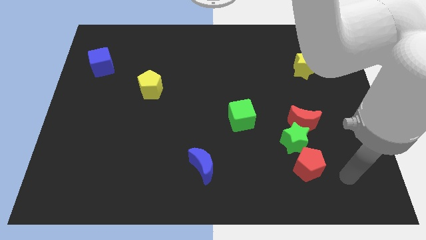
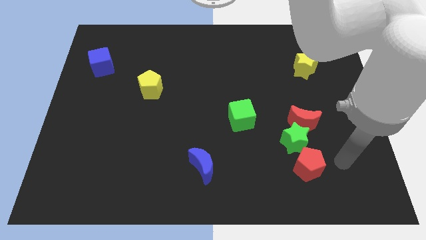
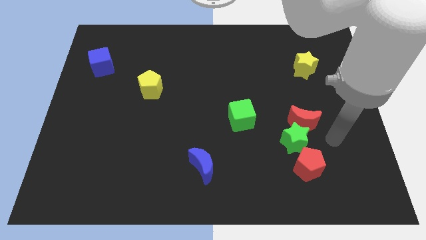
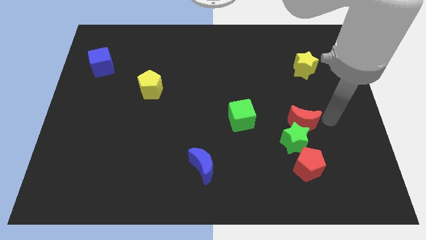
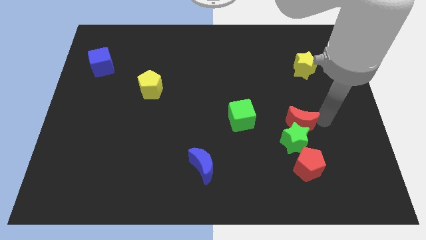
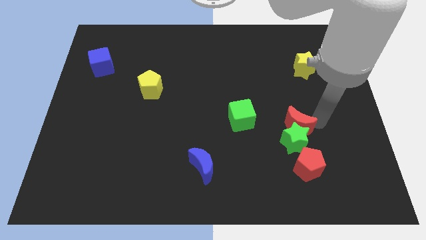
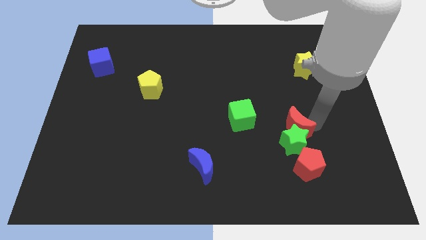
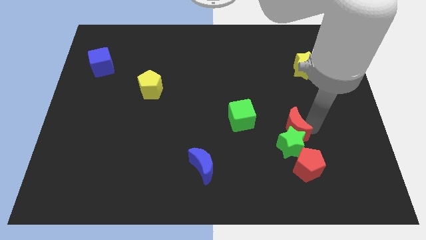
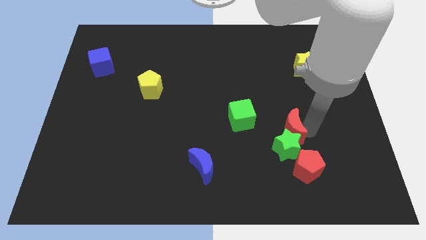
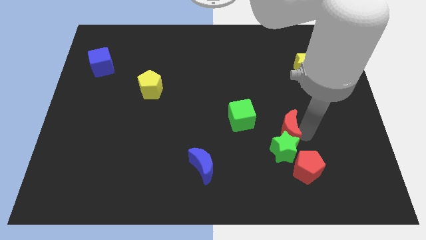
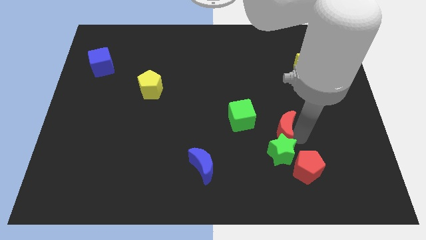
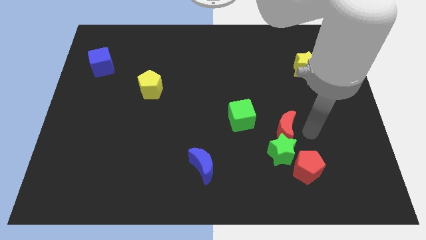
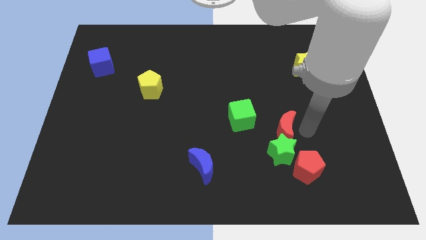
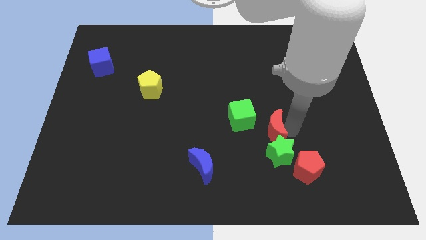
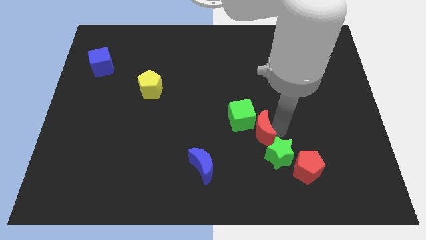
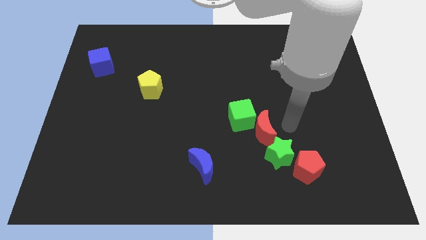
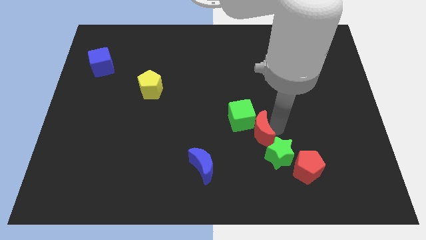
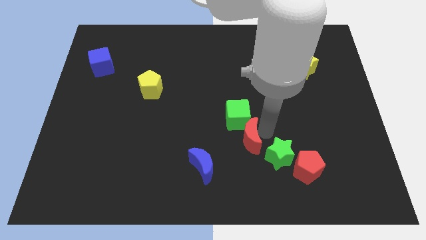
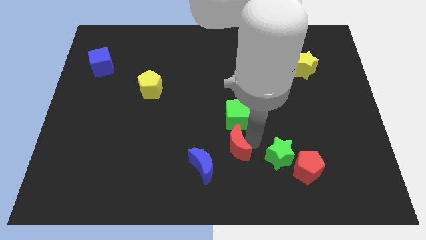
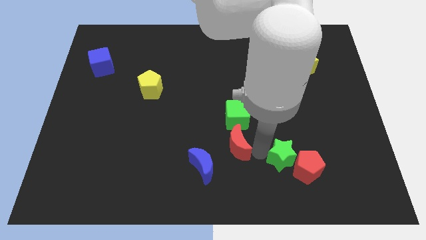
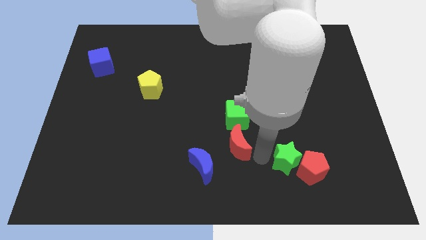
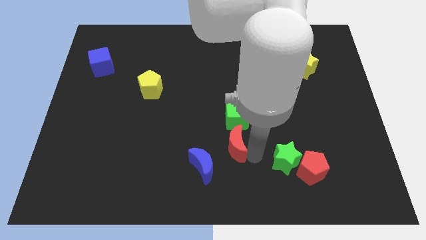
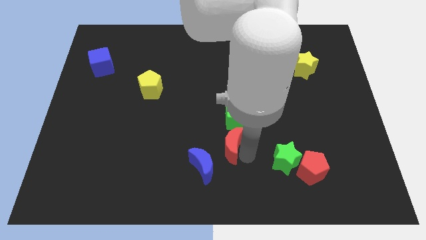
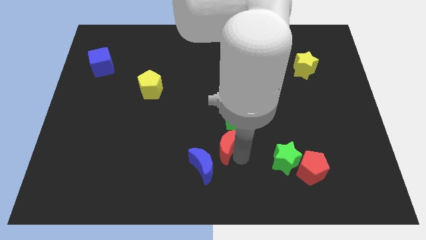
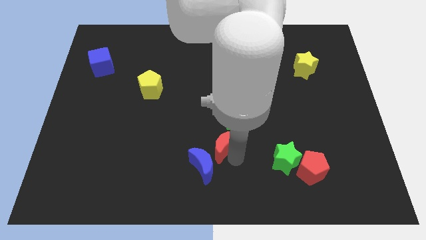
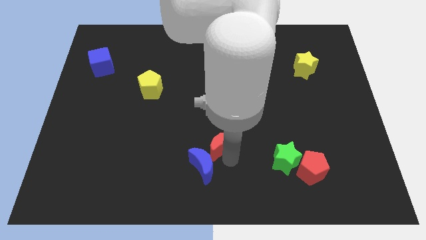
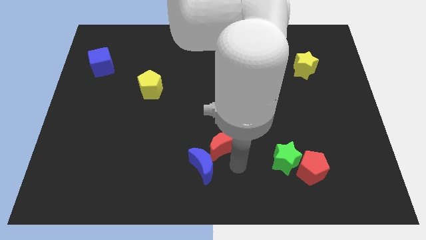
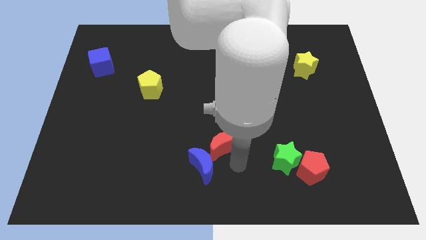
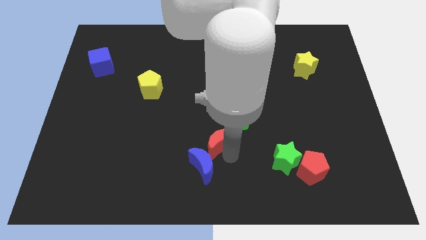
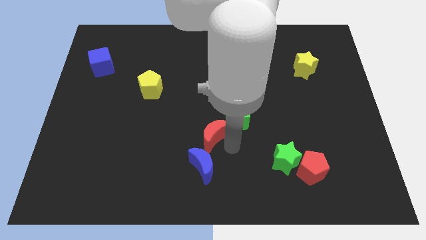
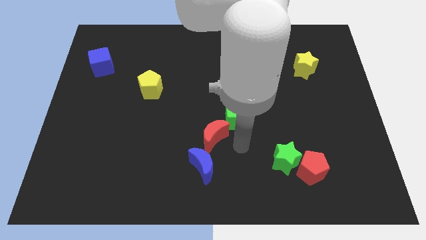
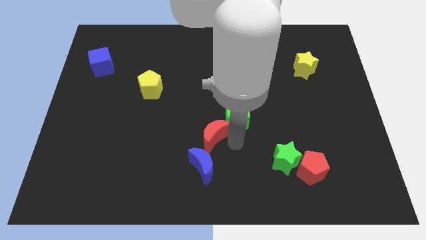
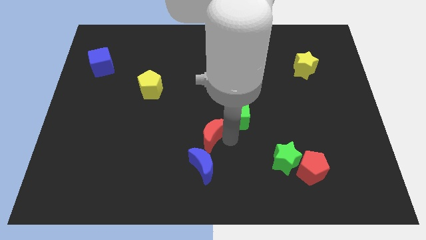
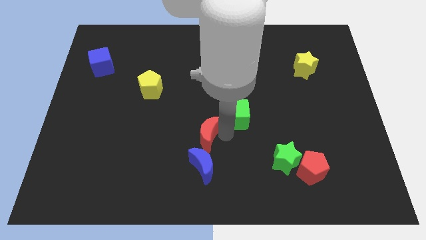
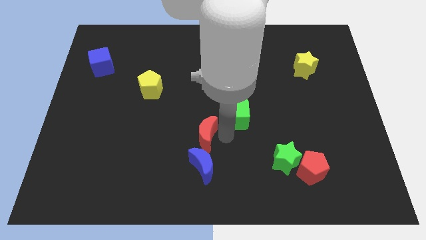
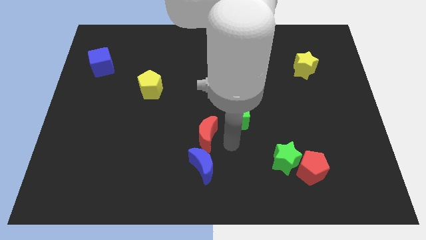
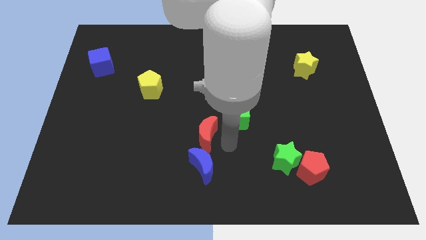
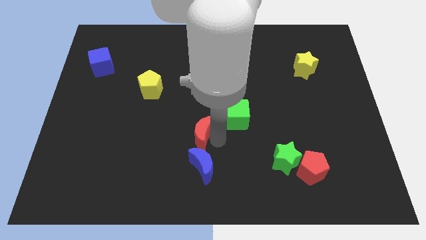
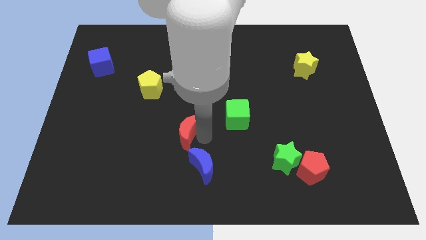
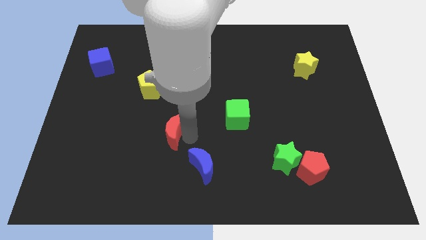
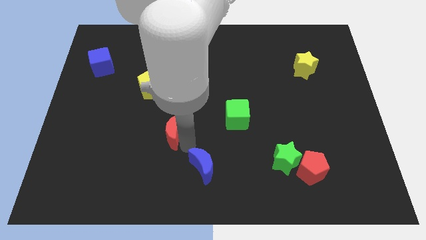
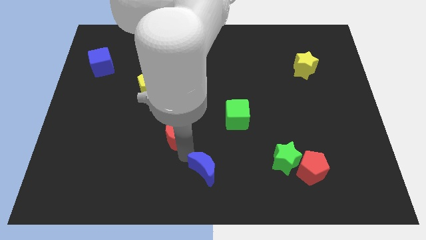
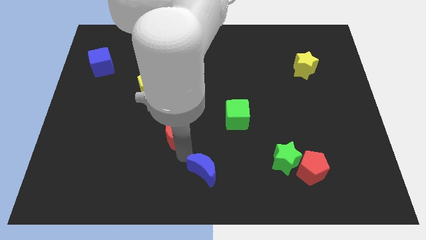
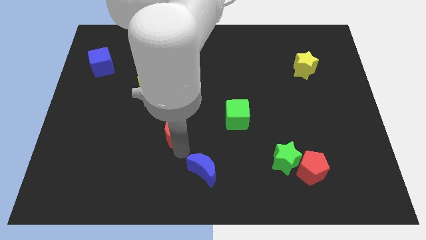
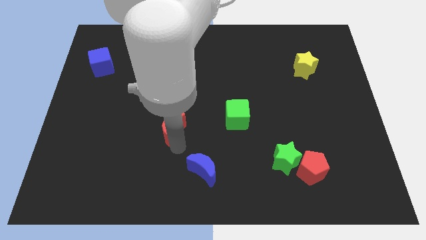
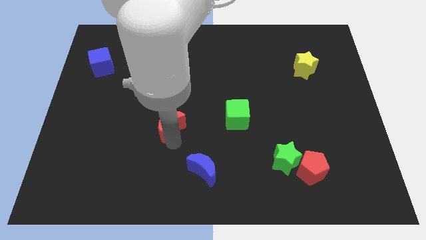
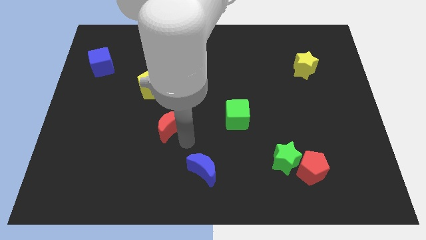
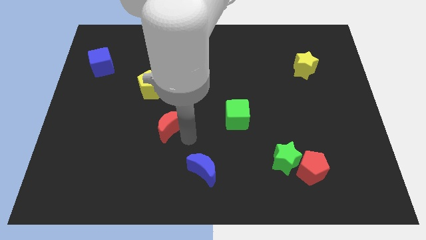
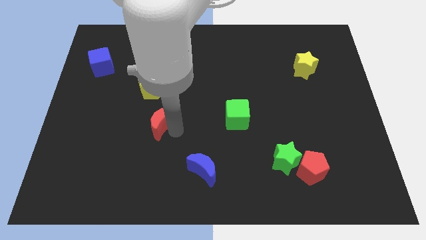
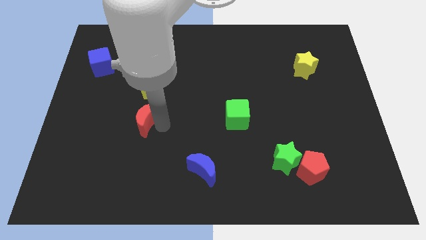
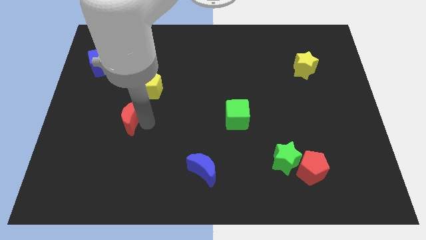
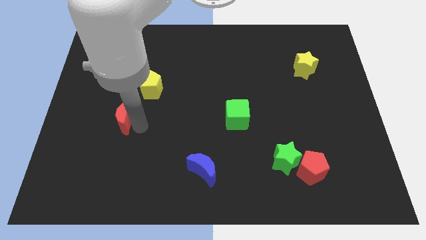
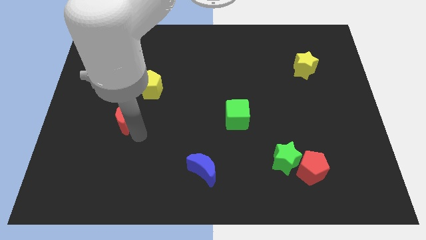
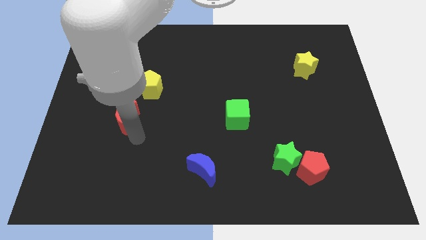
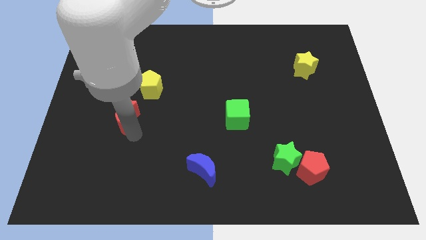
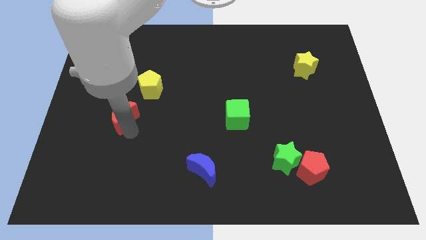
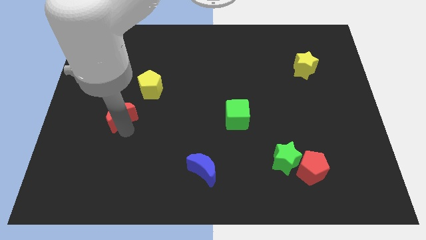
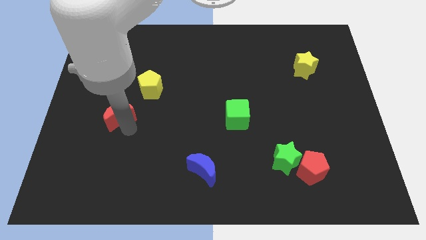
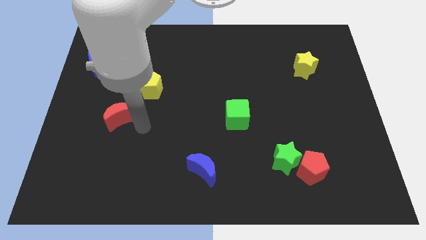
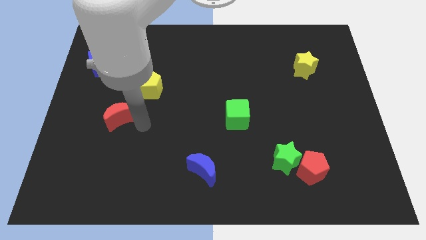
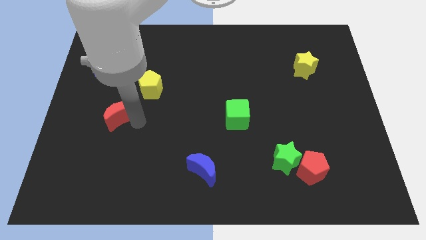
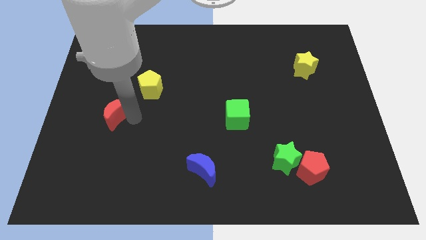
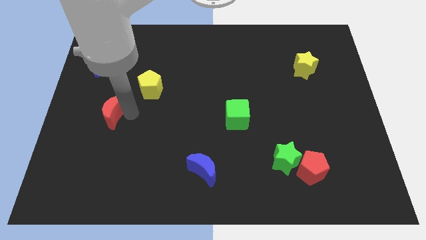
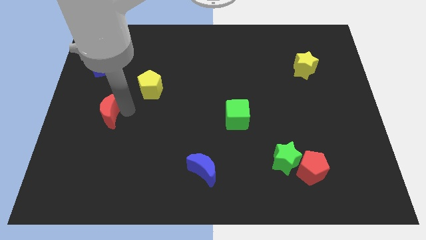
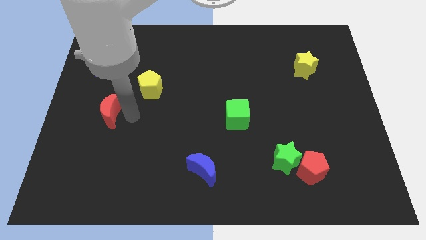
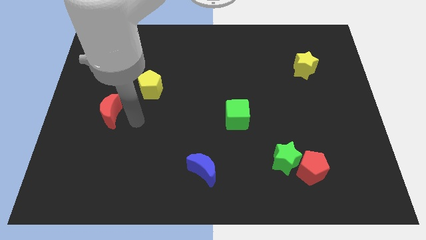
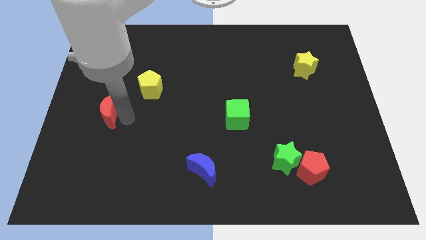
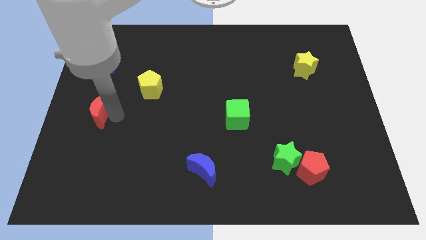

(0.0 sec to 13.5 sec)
push the red moon to the left side of the board
